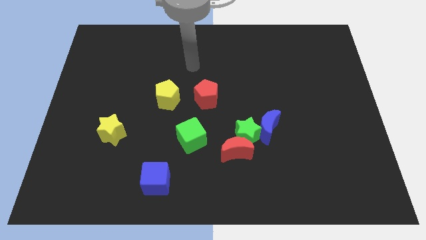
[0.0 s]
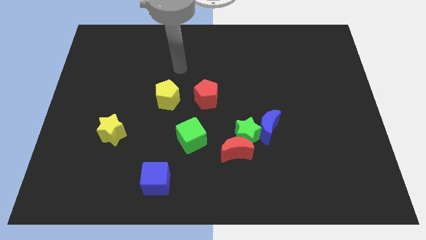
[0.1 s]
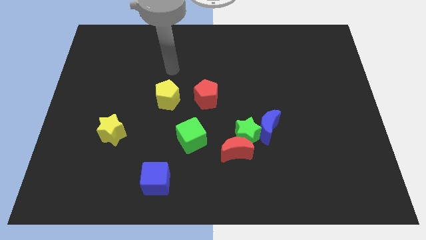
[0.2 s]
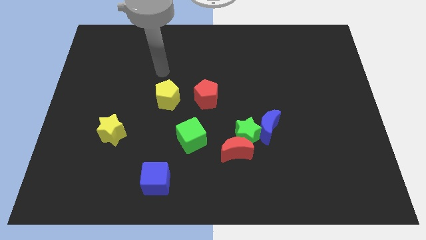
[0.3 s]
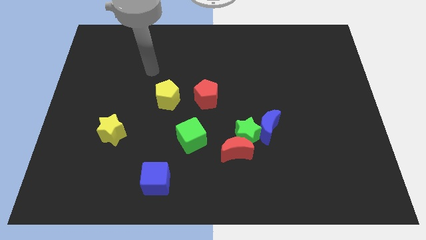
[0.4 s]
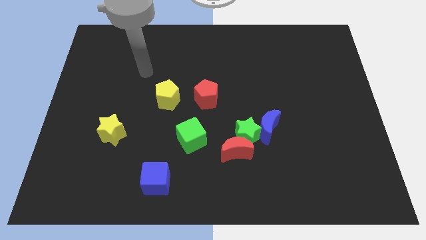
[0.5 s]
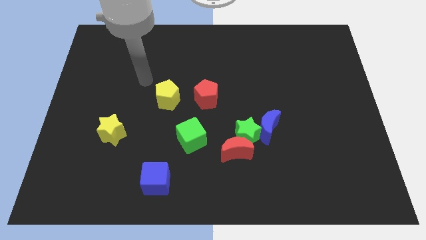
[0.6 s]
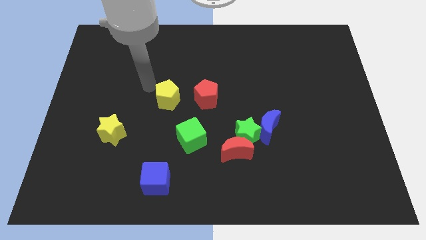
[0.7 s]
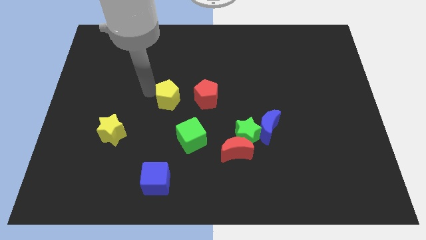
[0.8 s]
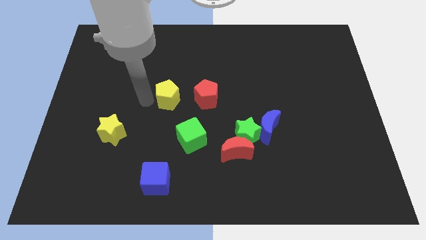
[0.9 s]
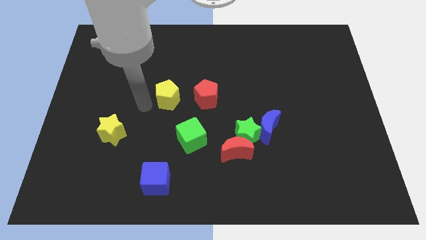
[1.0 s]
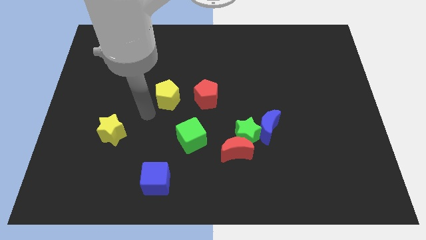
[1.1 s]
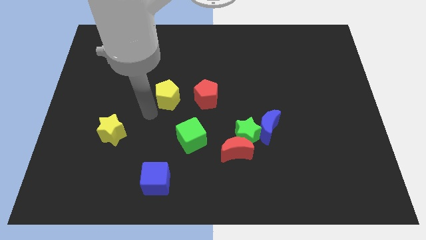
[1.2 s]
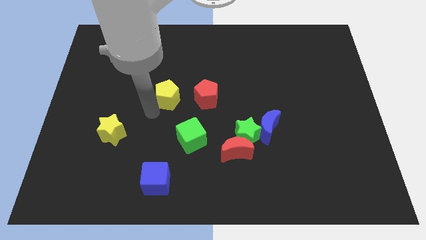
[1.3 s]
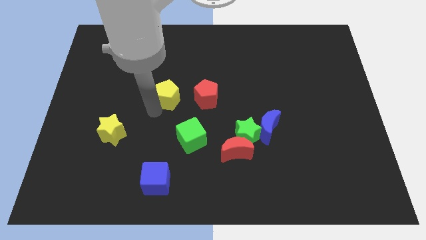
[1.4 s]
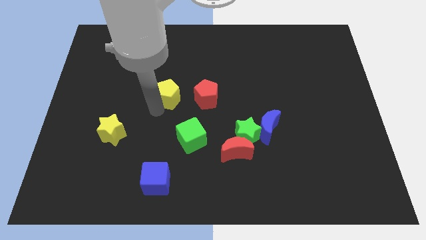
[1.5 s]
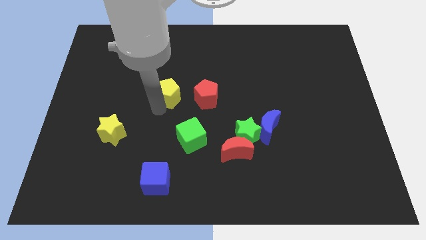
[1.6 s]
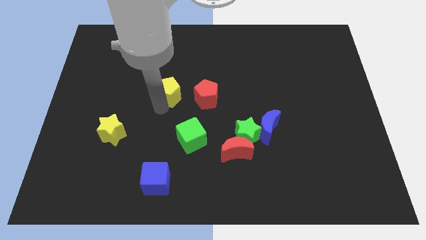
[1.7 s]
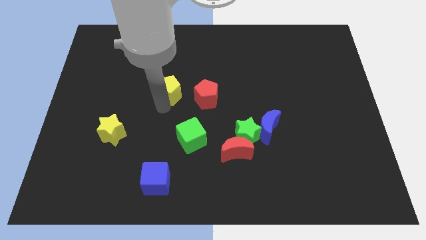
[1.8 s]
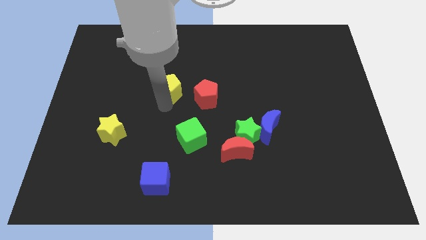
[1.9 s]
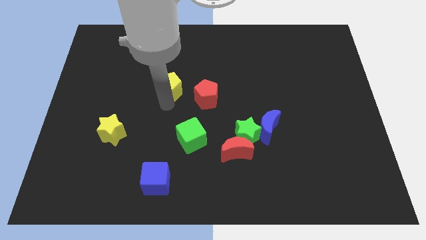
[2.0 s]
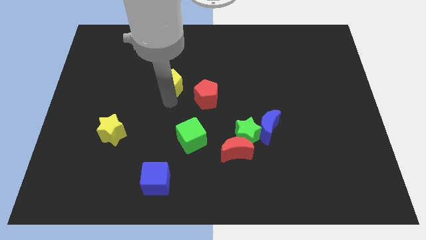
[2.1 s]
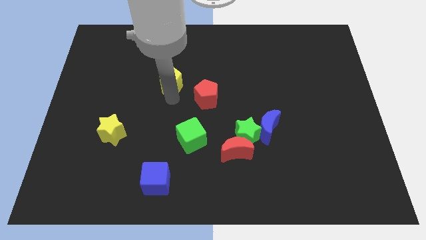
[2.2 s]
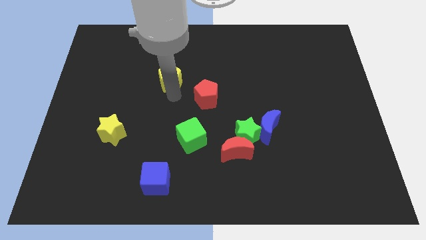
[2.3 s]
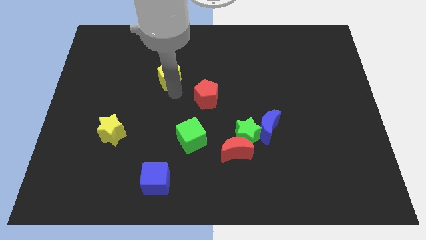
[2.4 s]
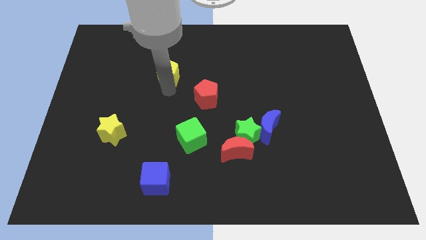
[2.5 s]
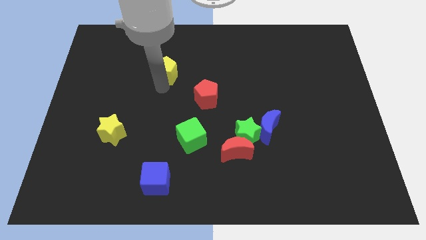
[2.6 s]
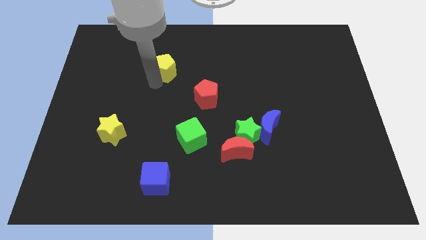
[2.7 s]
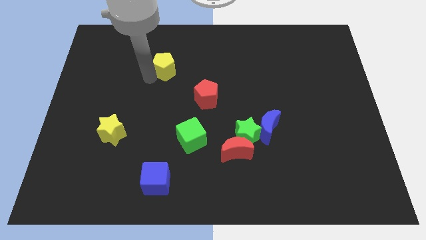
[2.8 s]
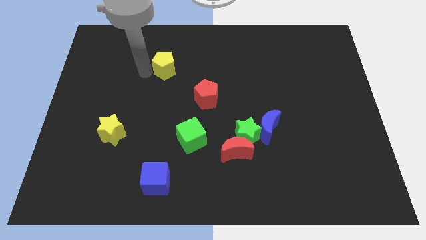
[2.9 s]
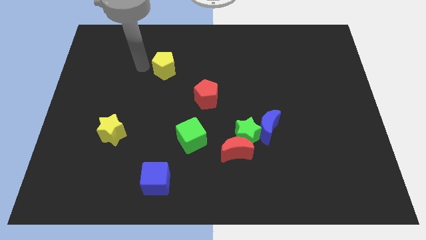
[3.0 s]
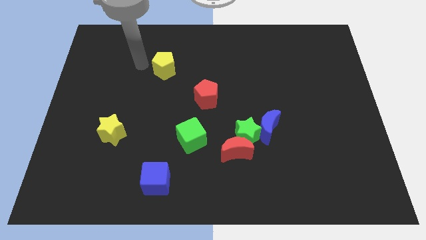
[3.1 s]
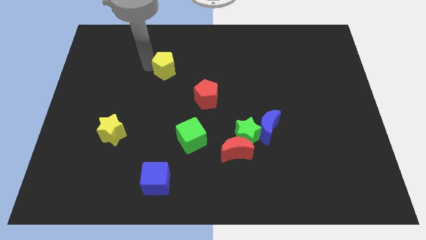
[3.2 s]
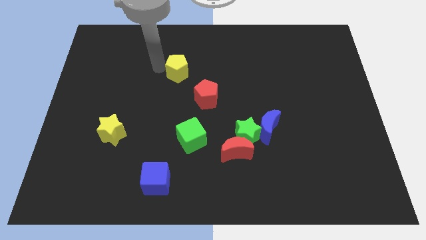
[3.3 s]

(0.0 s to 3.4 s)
push the yellow pentagon slightly up and to the right

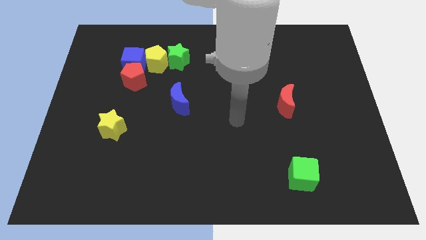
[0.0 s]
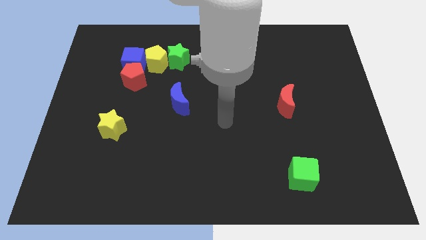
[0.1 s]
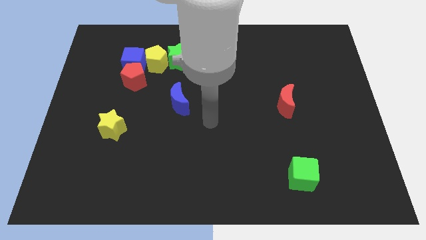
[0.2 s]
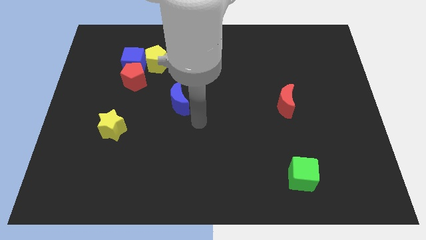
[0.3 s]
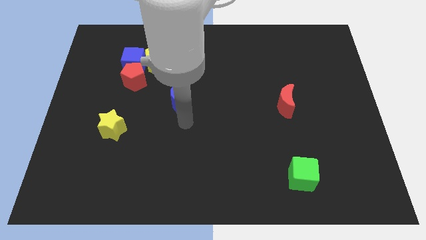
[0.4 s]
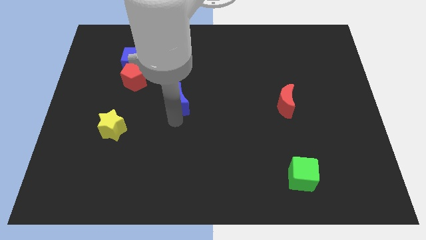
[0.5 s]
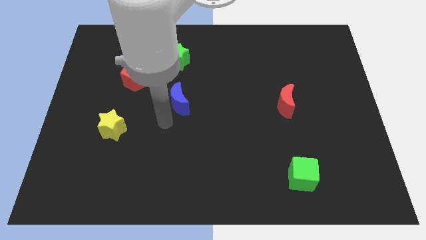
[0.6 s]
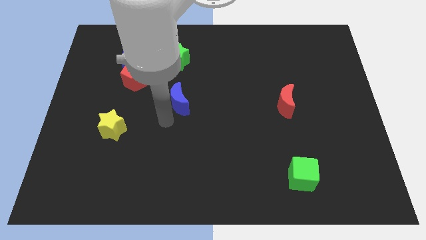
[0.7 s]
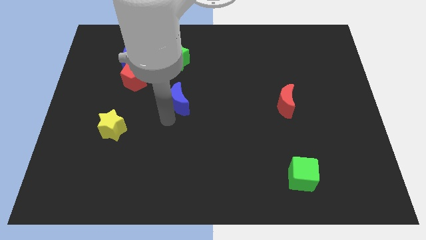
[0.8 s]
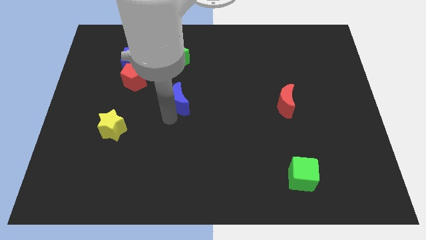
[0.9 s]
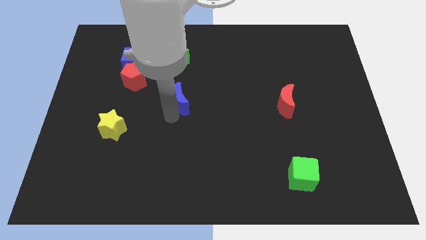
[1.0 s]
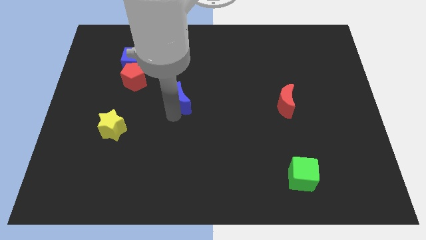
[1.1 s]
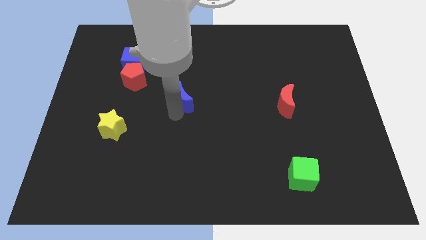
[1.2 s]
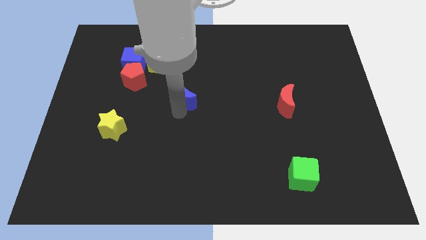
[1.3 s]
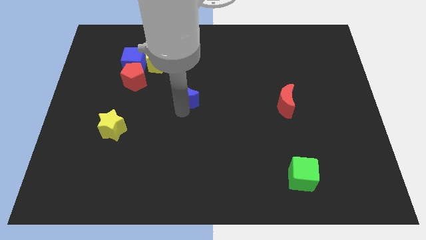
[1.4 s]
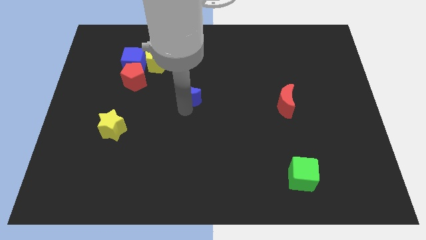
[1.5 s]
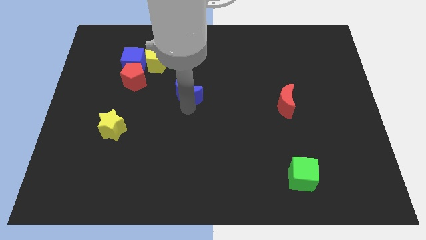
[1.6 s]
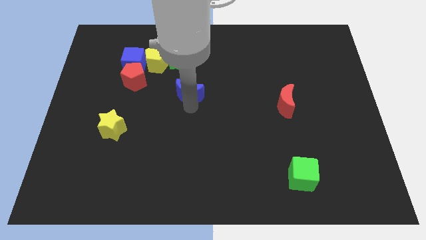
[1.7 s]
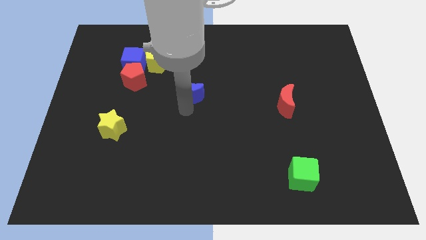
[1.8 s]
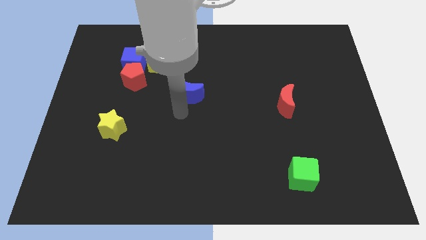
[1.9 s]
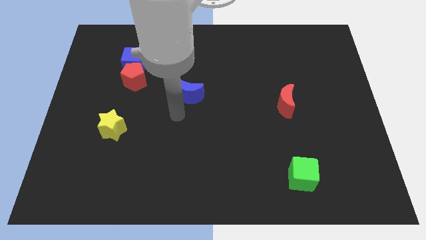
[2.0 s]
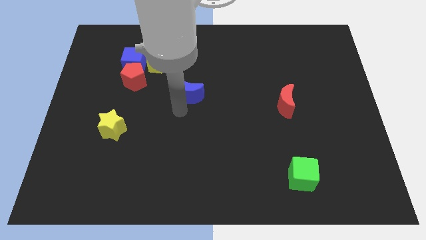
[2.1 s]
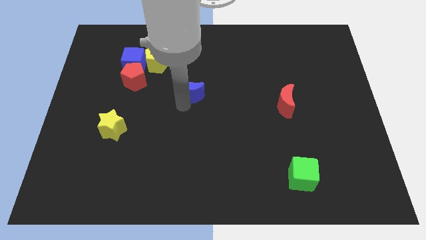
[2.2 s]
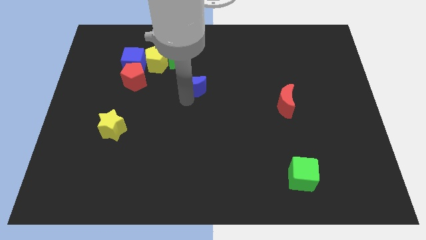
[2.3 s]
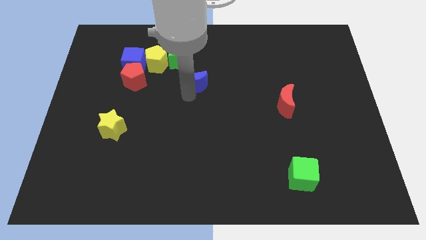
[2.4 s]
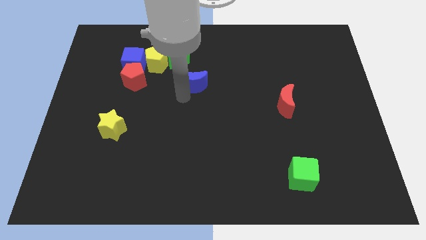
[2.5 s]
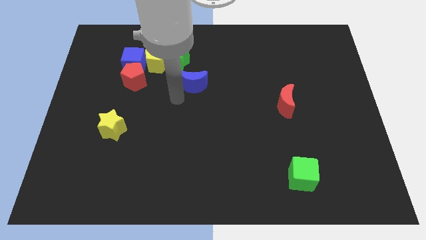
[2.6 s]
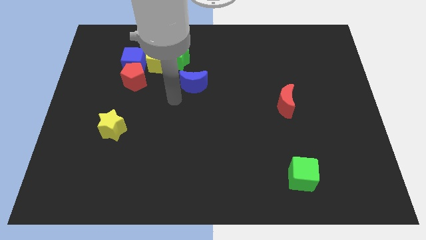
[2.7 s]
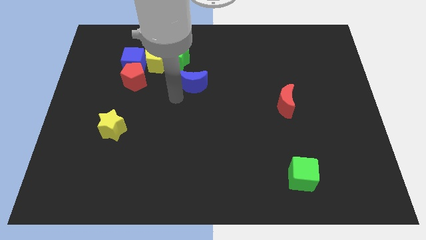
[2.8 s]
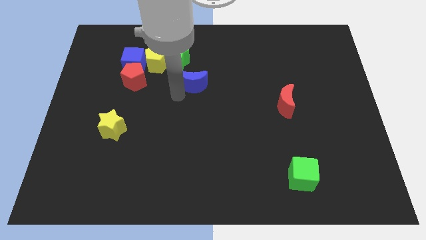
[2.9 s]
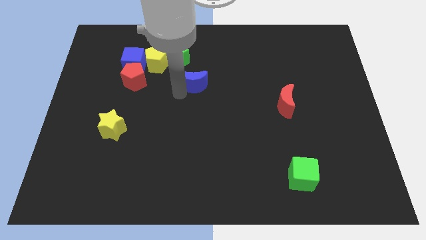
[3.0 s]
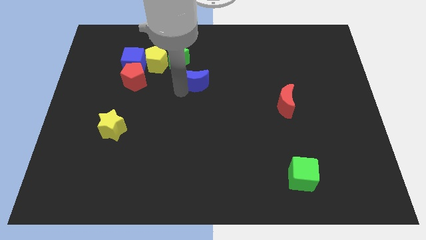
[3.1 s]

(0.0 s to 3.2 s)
slightly slide the blue moon diagonally up and to the right

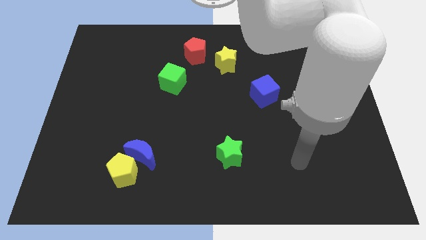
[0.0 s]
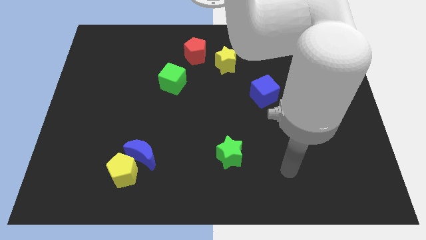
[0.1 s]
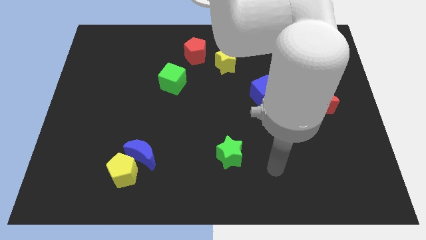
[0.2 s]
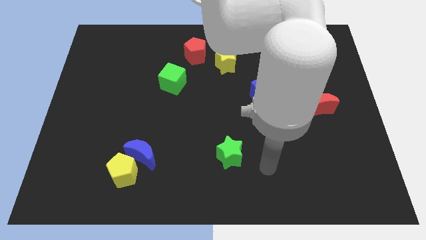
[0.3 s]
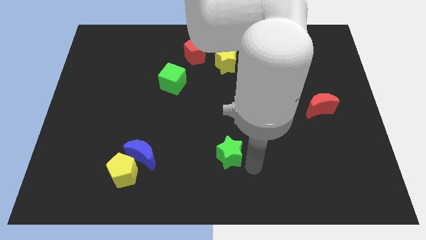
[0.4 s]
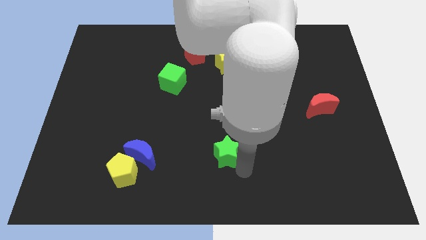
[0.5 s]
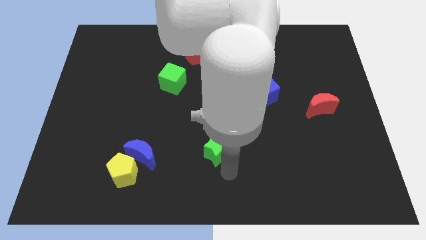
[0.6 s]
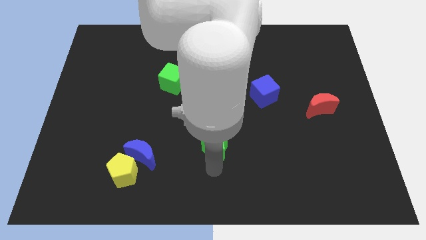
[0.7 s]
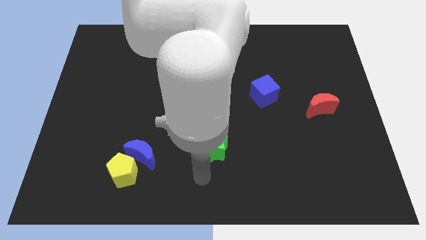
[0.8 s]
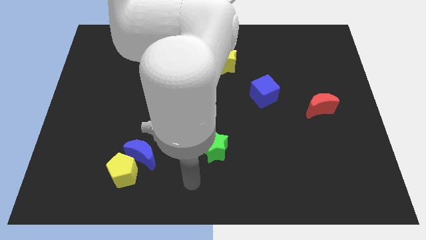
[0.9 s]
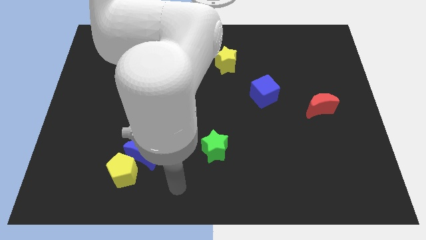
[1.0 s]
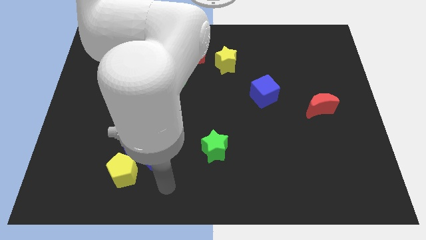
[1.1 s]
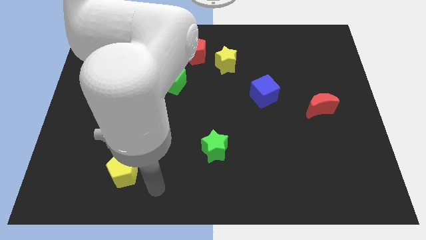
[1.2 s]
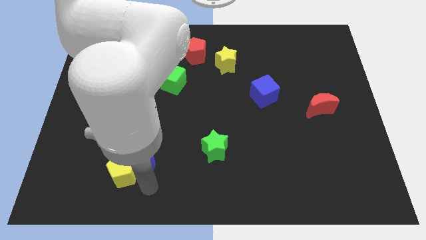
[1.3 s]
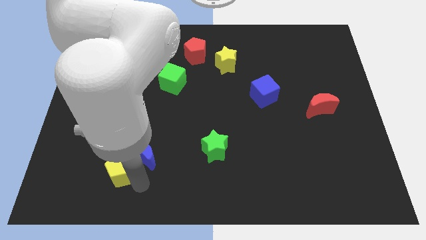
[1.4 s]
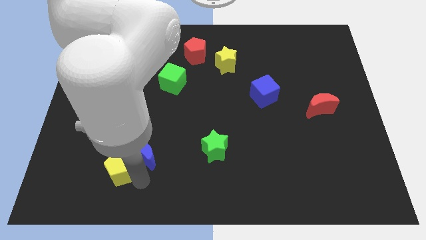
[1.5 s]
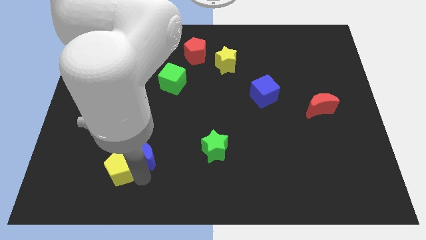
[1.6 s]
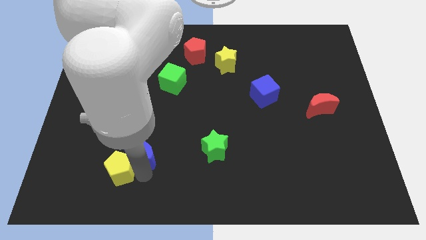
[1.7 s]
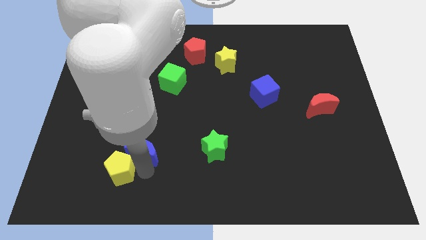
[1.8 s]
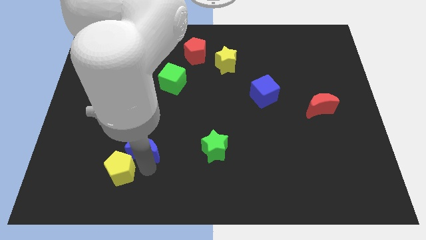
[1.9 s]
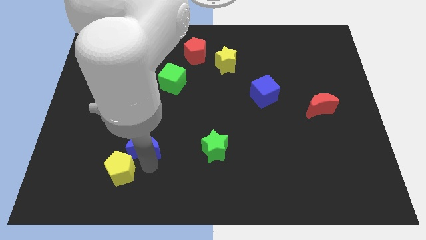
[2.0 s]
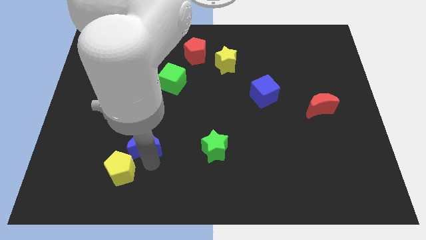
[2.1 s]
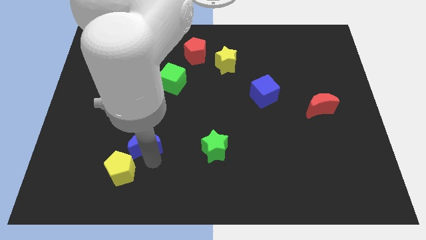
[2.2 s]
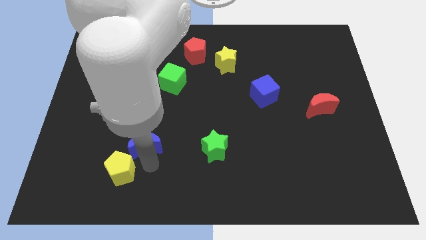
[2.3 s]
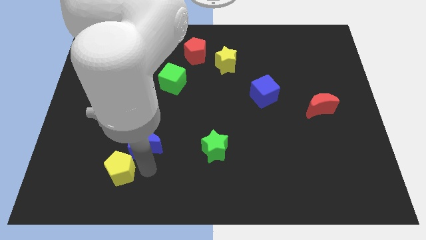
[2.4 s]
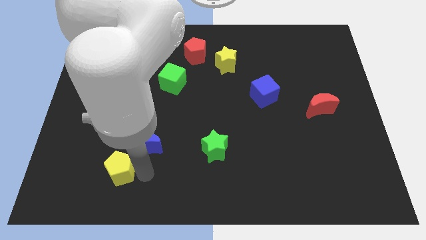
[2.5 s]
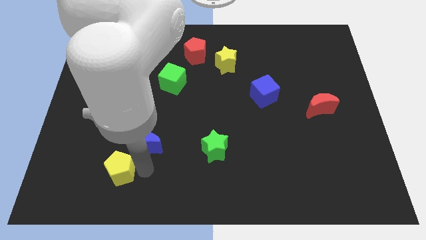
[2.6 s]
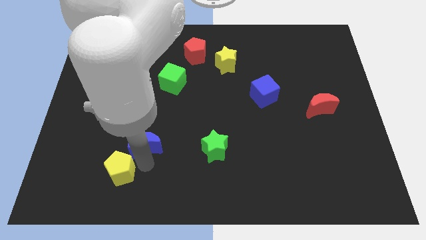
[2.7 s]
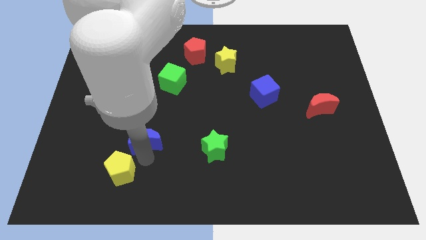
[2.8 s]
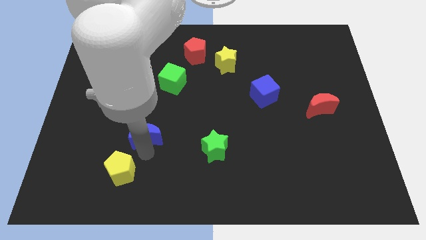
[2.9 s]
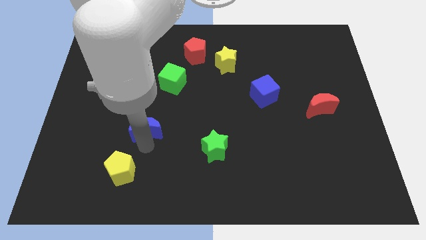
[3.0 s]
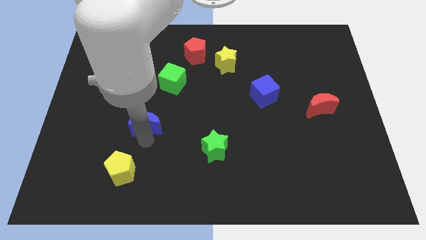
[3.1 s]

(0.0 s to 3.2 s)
move the blue moon a little upwards
